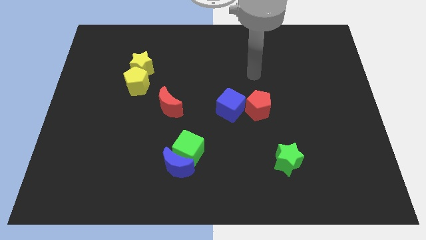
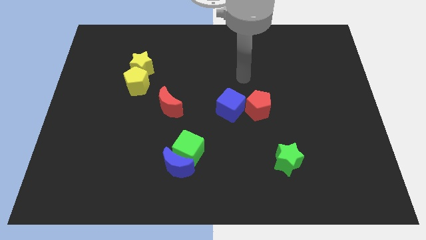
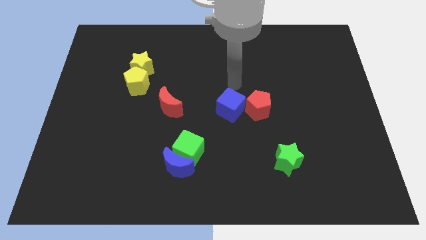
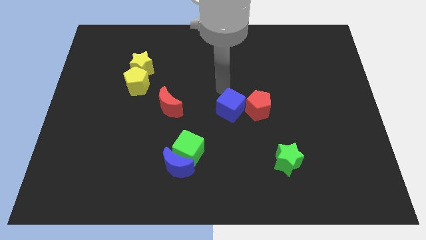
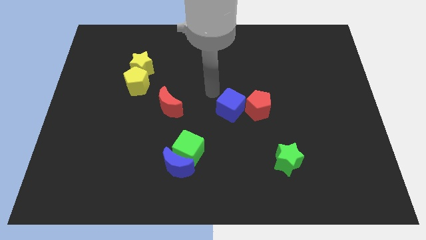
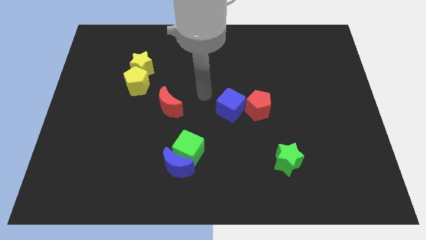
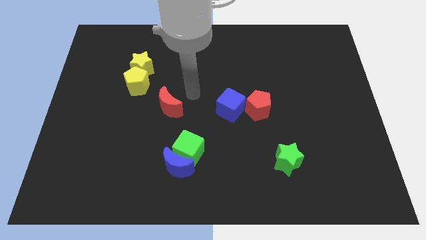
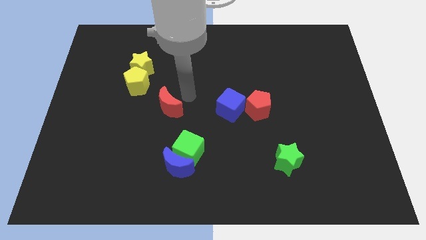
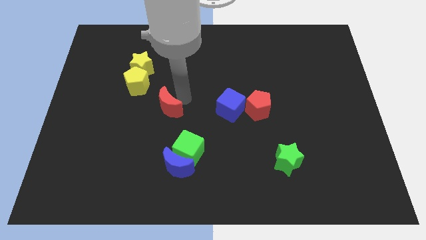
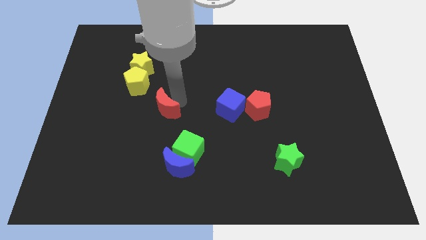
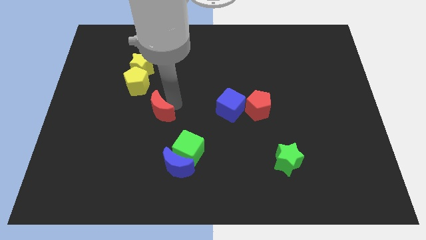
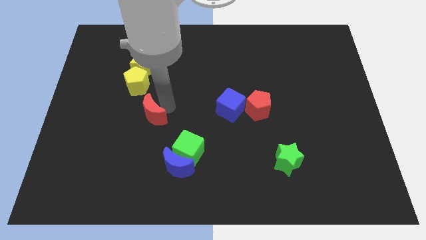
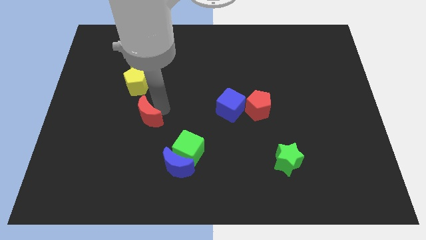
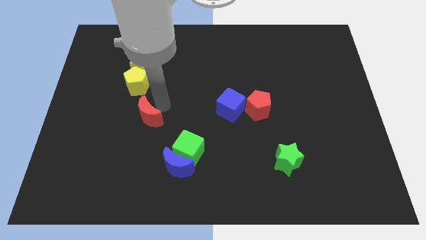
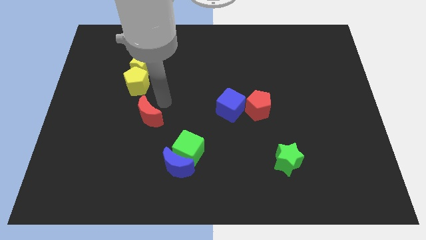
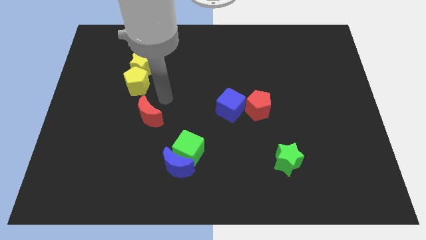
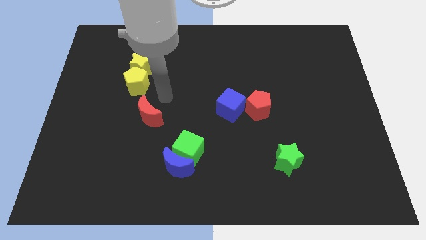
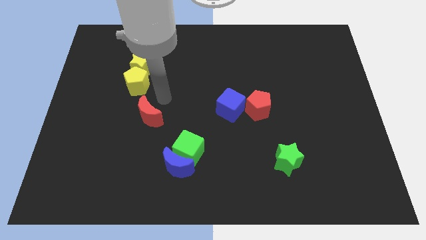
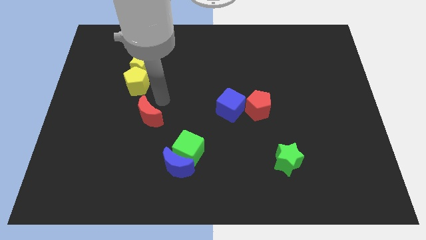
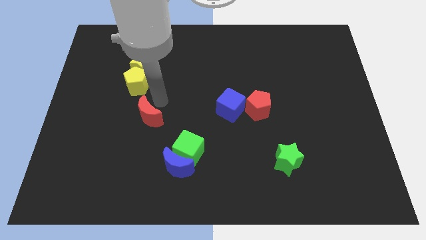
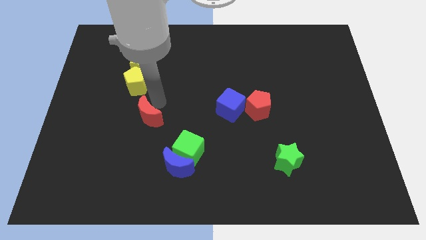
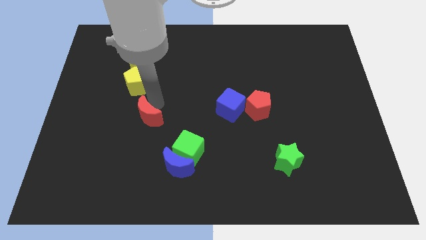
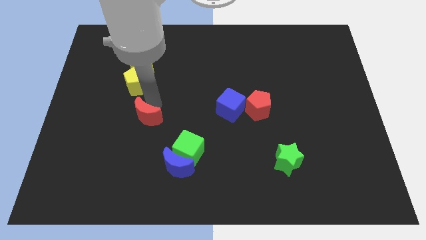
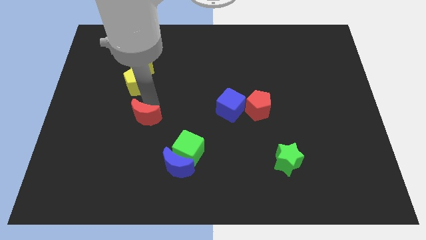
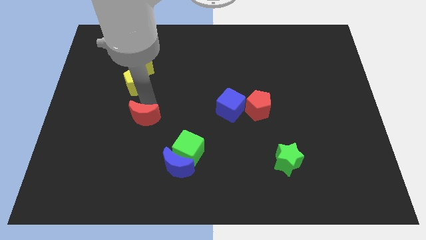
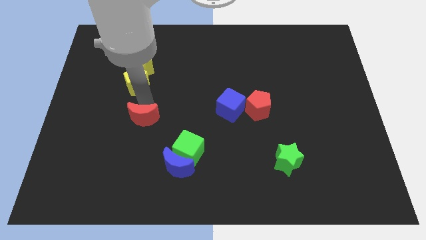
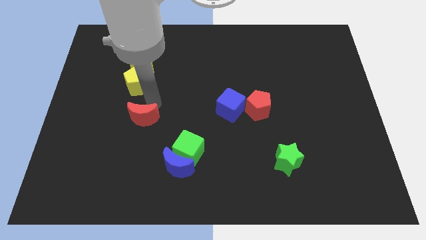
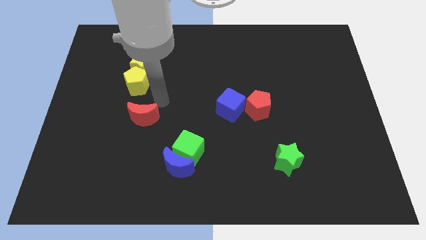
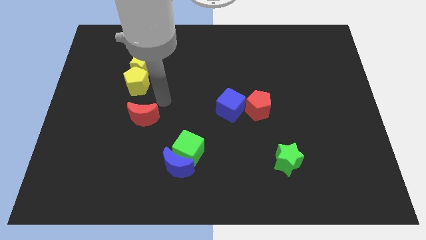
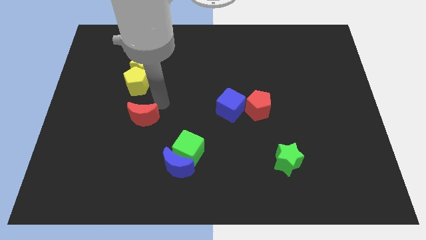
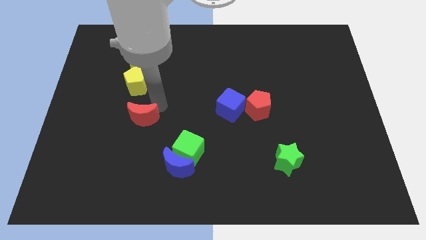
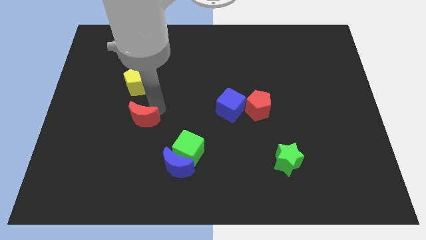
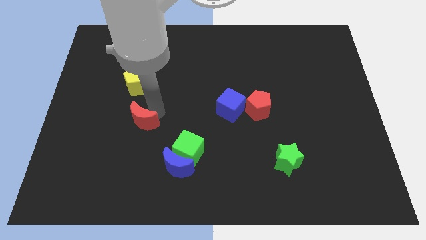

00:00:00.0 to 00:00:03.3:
slightly move the red moon diagonally downwards and left

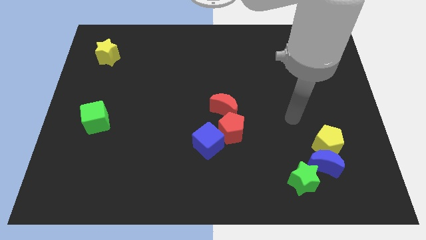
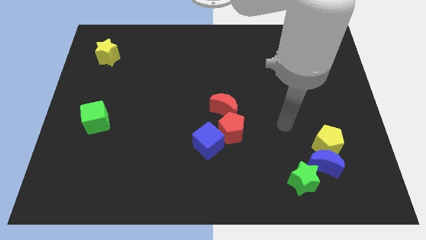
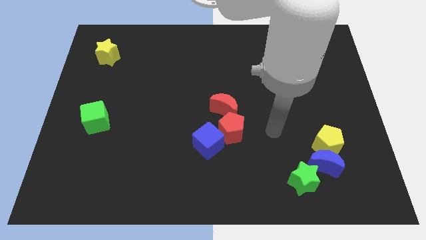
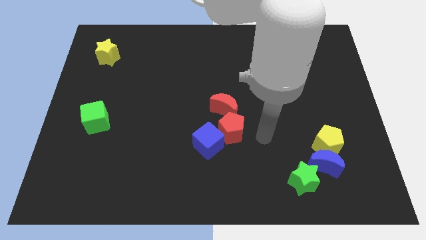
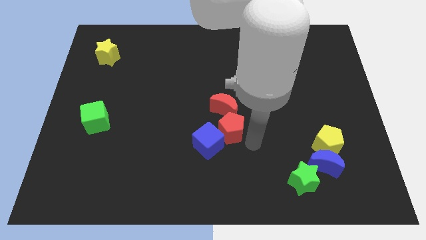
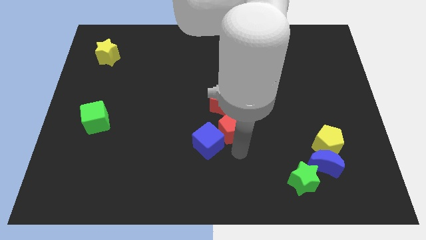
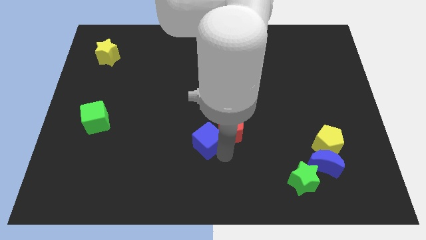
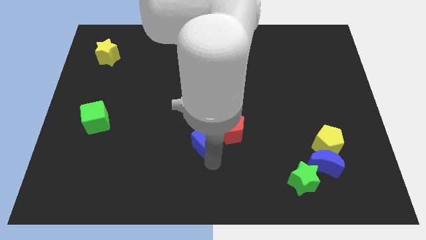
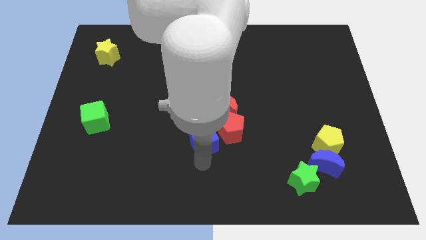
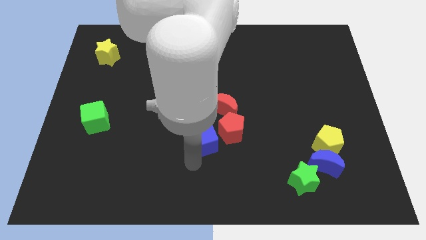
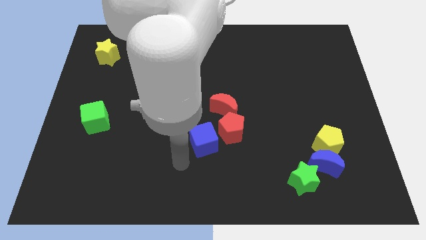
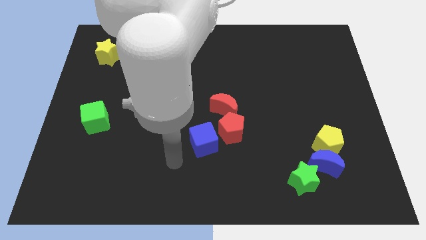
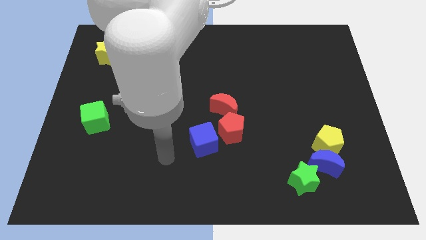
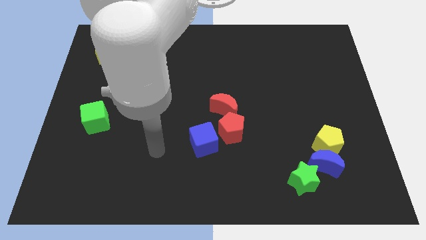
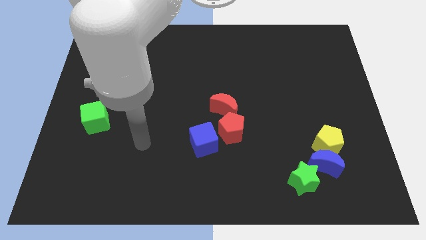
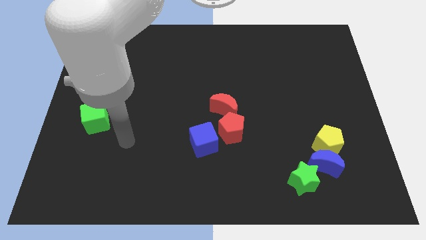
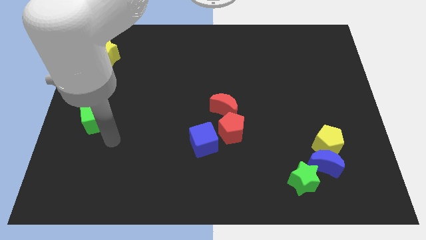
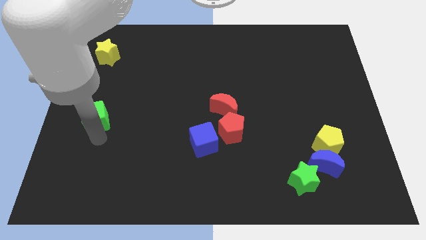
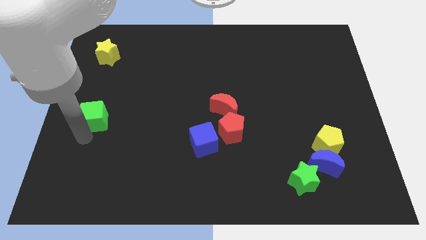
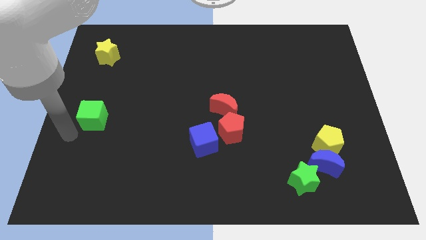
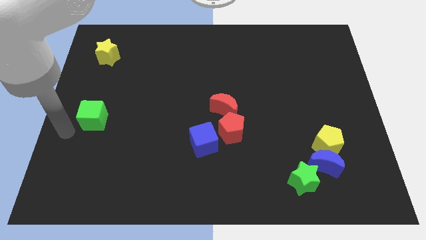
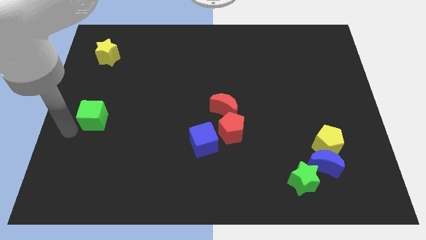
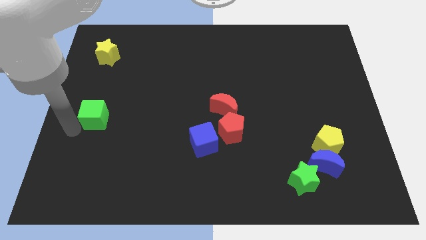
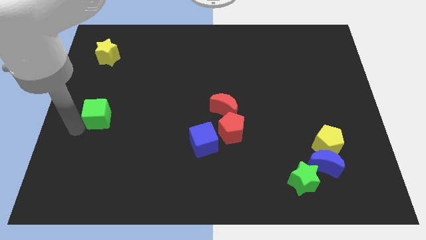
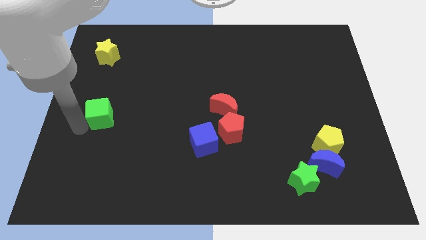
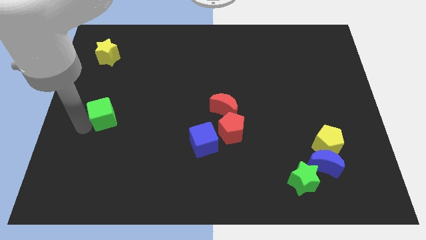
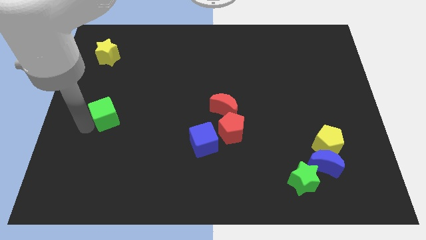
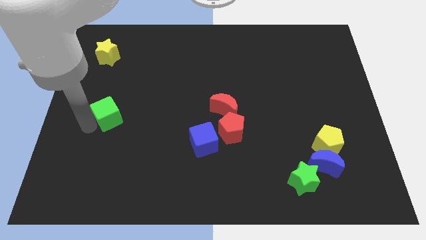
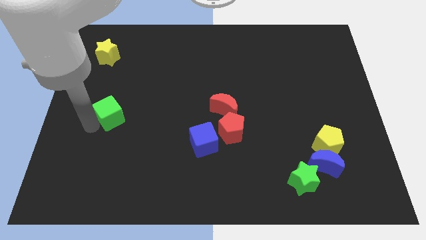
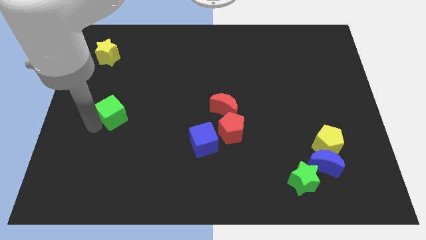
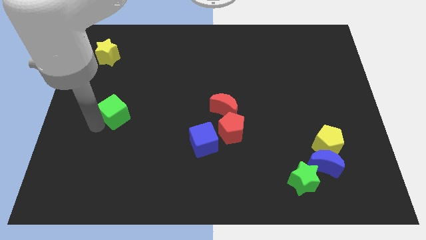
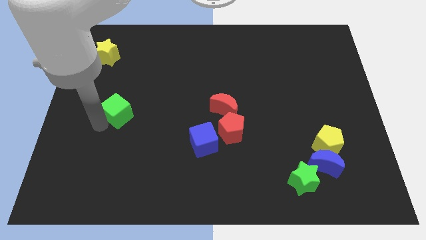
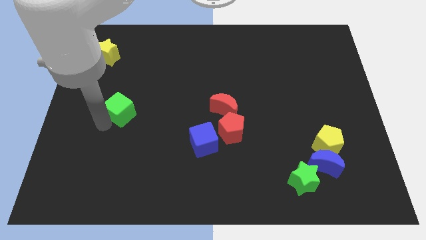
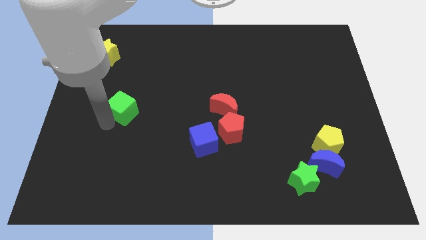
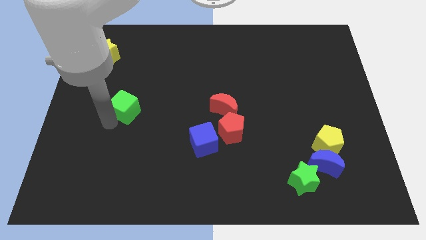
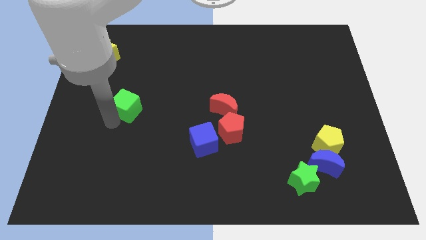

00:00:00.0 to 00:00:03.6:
slide the green cube a little bit up and right diagonally

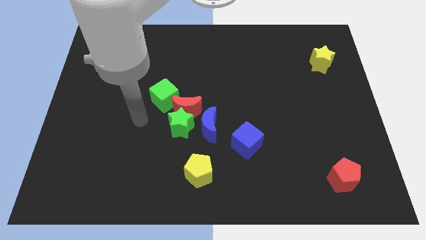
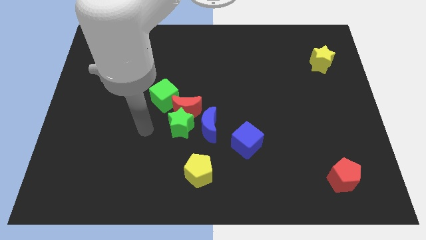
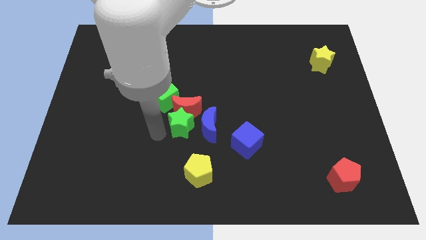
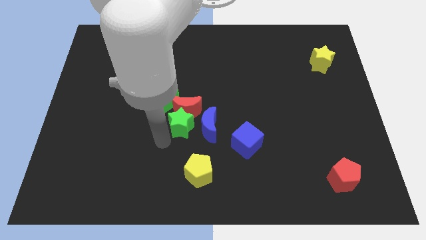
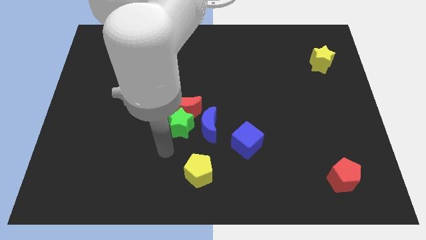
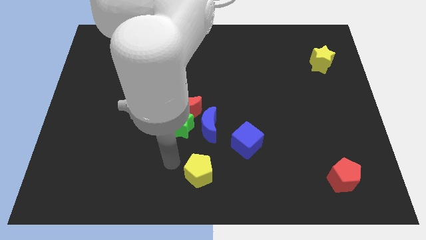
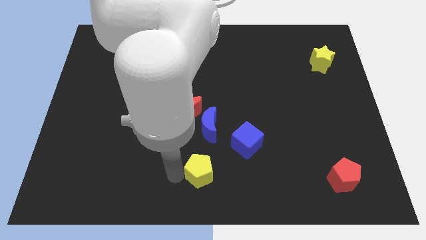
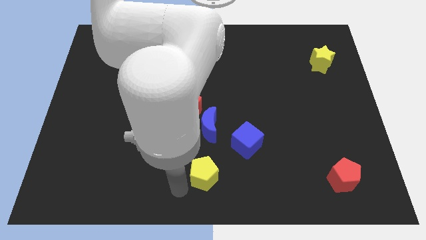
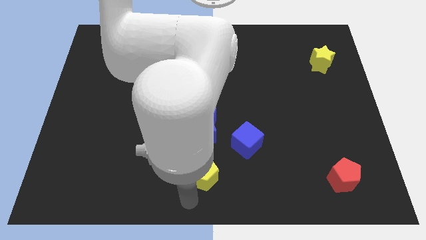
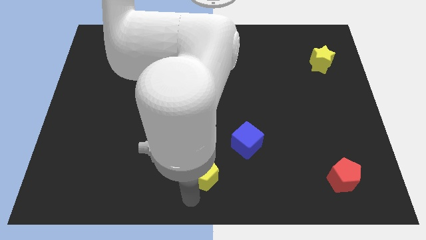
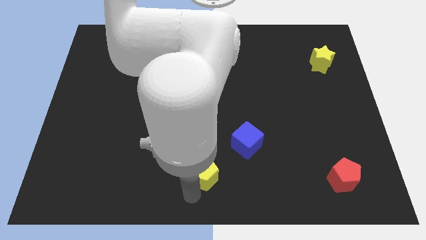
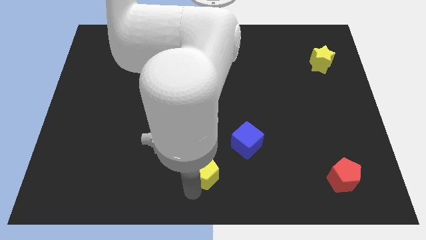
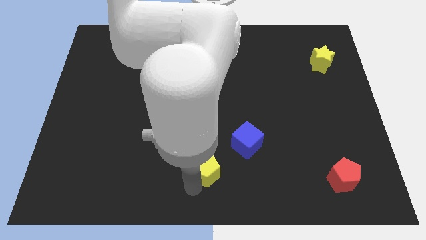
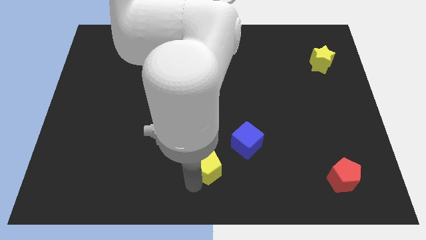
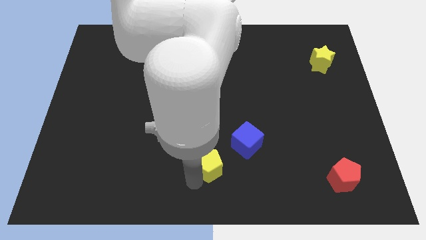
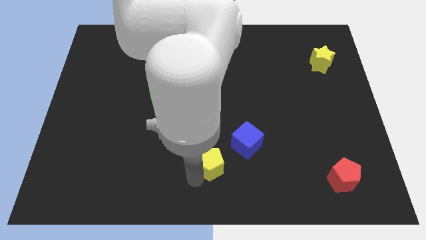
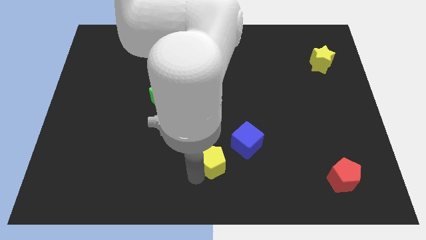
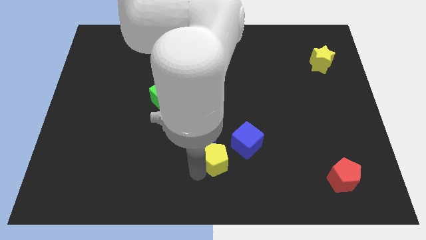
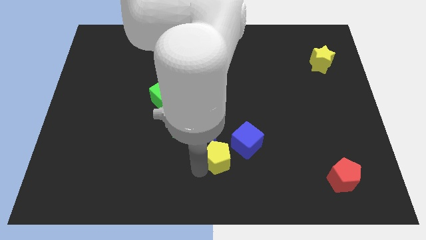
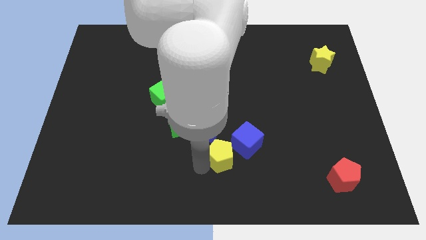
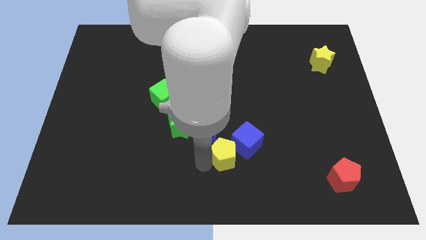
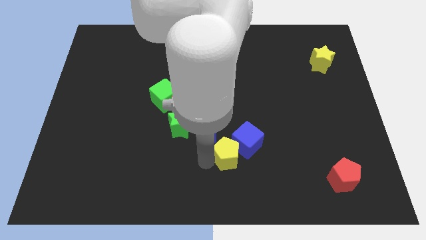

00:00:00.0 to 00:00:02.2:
move the yellow pentagon a little bit diagonally upwards and to the right
